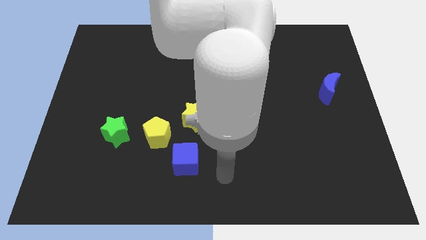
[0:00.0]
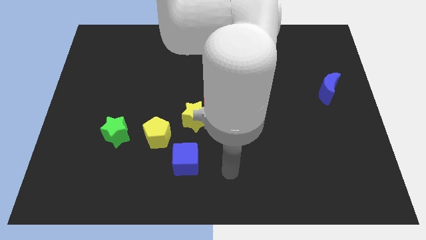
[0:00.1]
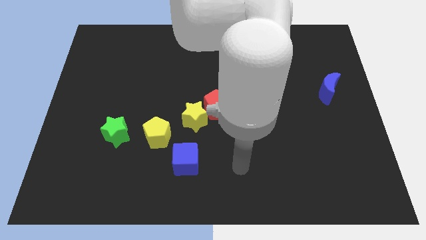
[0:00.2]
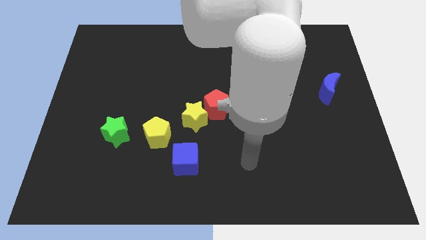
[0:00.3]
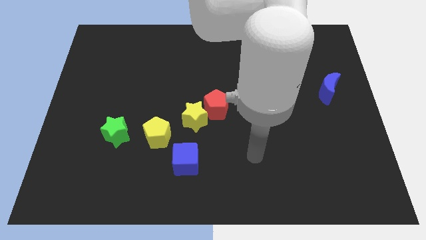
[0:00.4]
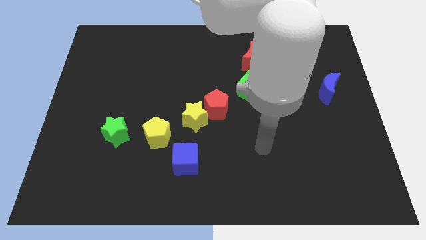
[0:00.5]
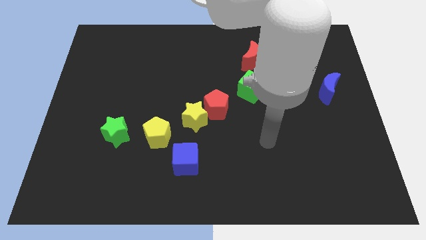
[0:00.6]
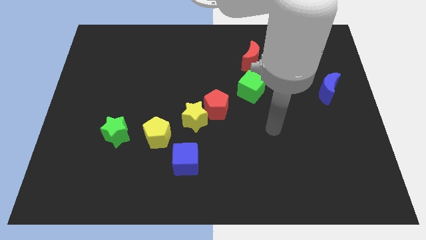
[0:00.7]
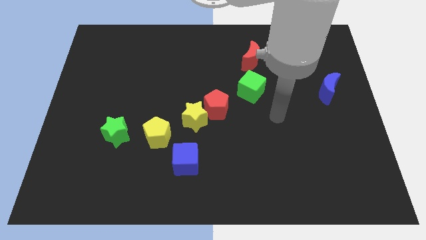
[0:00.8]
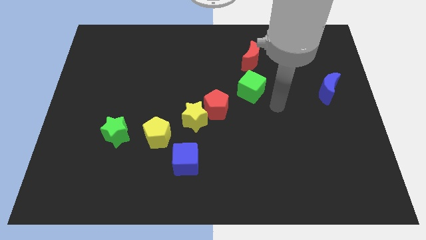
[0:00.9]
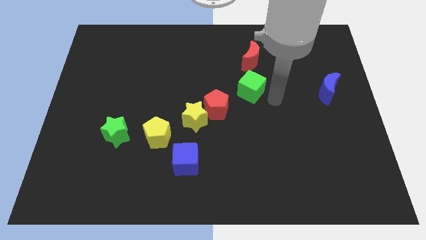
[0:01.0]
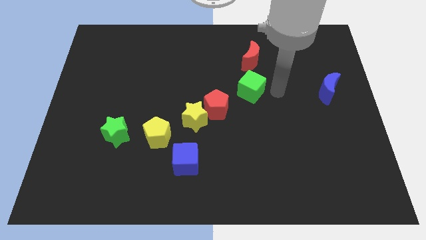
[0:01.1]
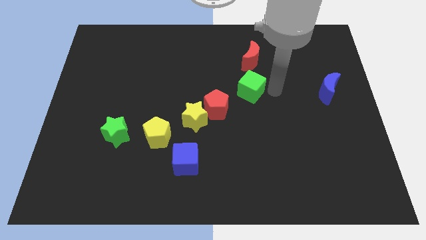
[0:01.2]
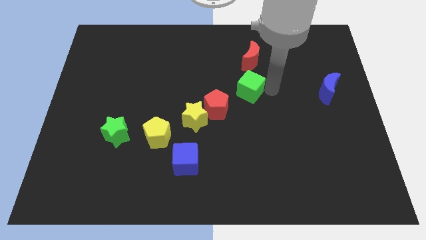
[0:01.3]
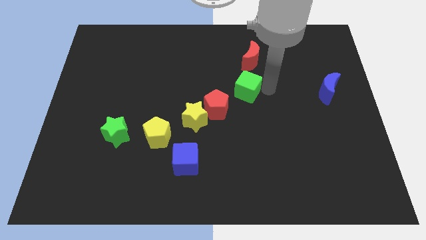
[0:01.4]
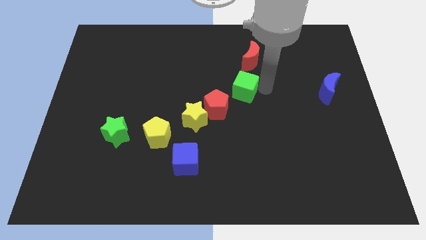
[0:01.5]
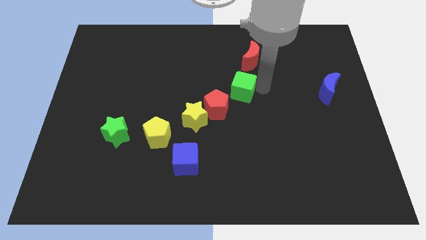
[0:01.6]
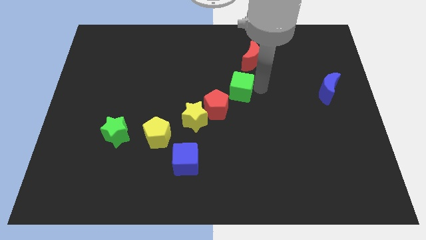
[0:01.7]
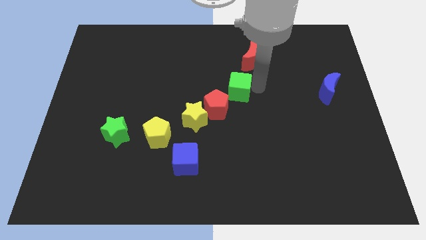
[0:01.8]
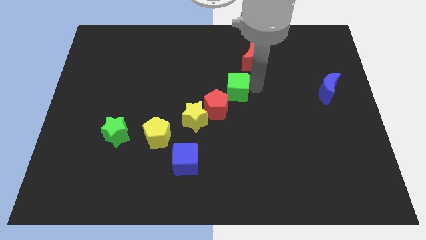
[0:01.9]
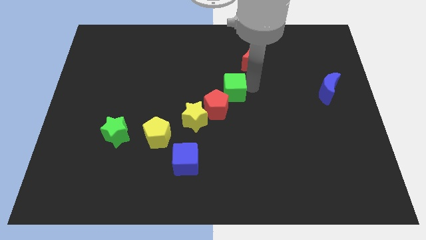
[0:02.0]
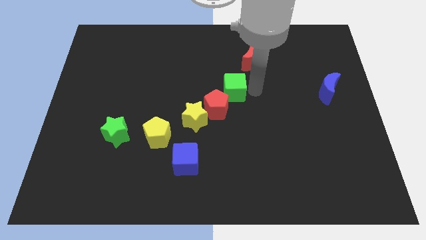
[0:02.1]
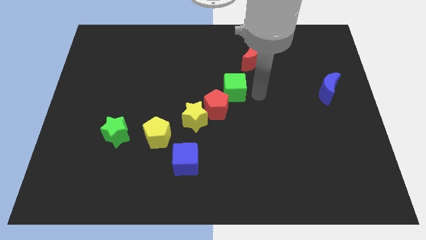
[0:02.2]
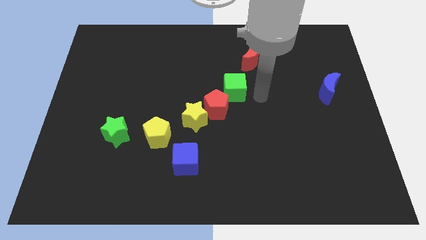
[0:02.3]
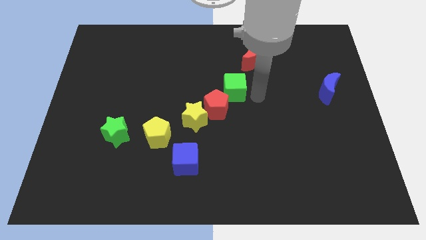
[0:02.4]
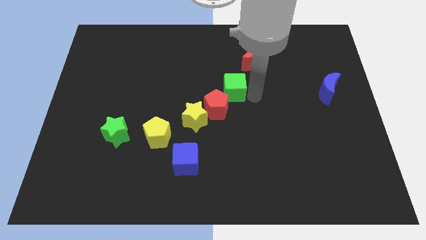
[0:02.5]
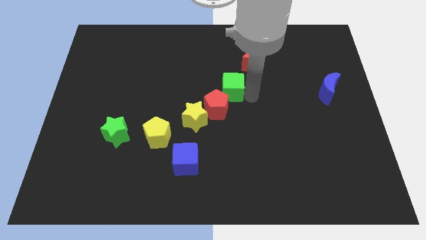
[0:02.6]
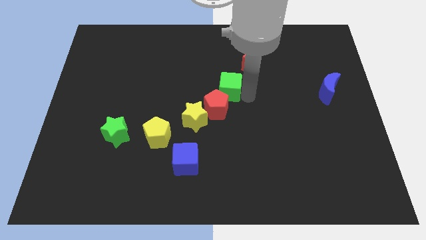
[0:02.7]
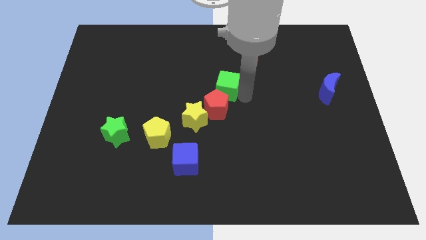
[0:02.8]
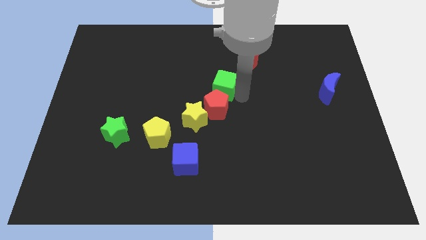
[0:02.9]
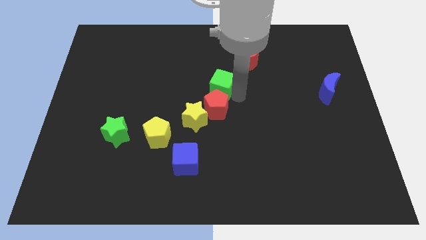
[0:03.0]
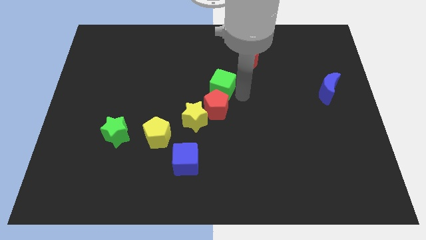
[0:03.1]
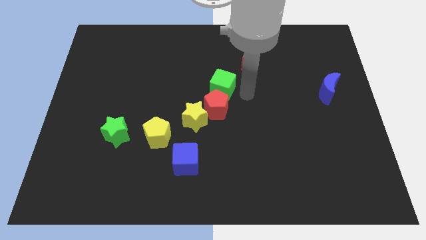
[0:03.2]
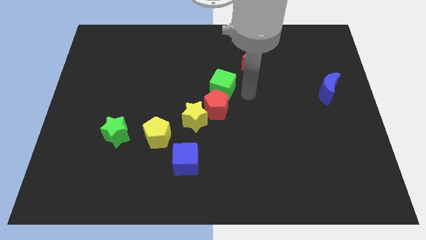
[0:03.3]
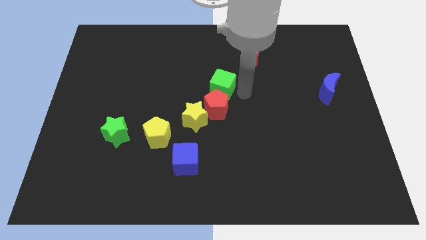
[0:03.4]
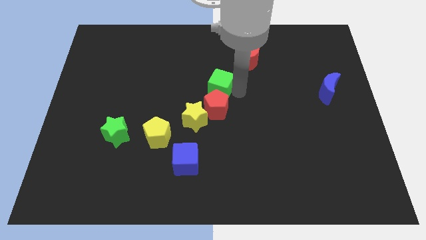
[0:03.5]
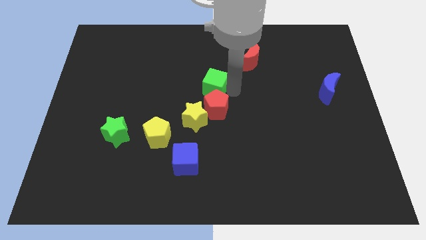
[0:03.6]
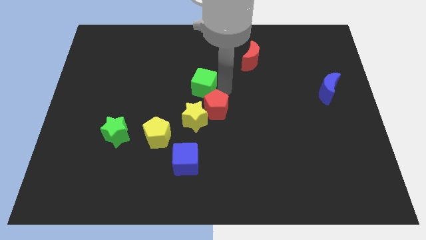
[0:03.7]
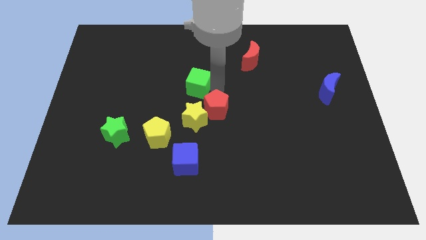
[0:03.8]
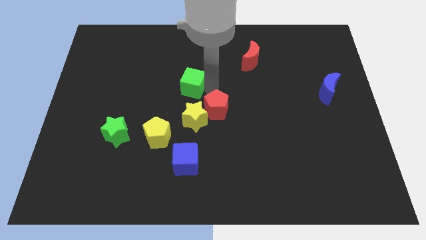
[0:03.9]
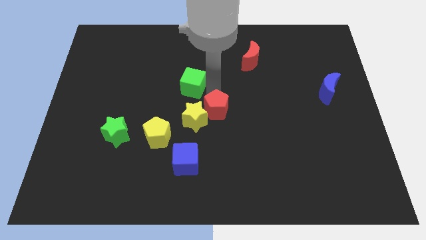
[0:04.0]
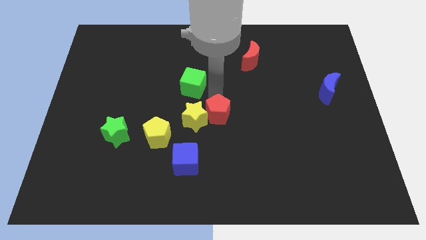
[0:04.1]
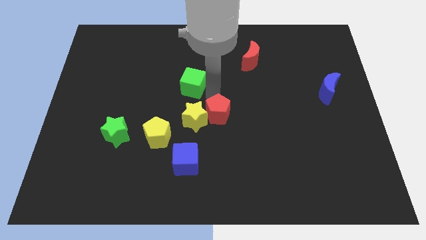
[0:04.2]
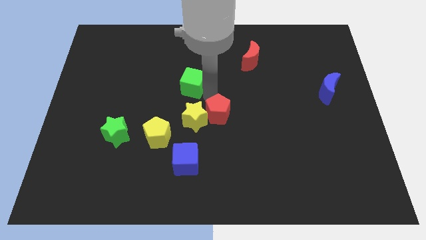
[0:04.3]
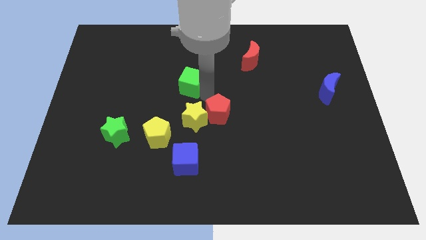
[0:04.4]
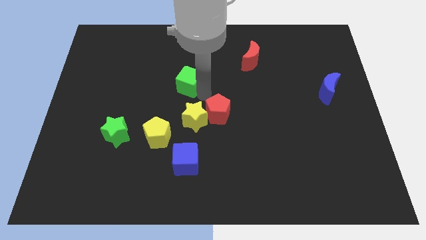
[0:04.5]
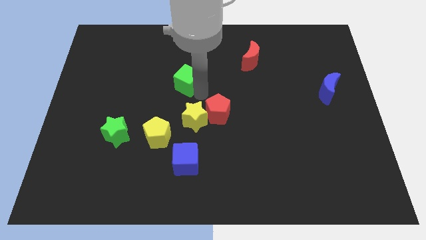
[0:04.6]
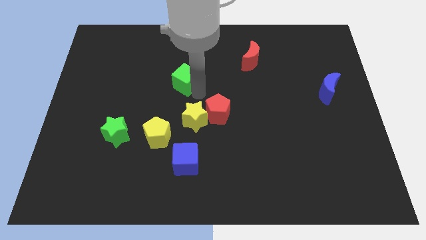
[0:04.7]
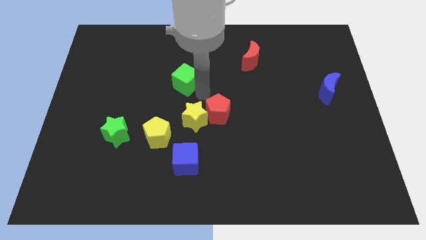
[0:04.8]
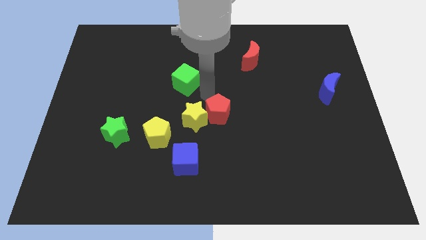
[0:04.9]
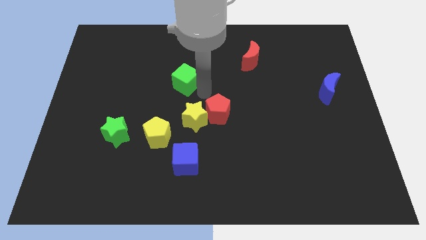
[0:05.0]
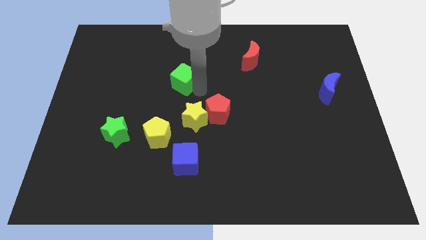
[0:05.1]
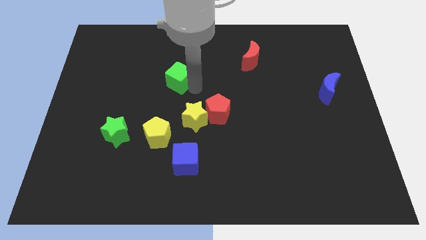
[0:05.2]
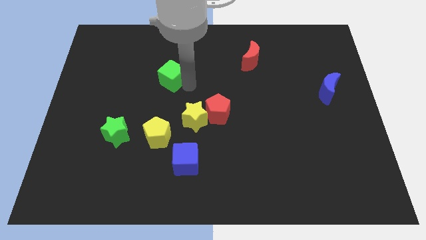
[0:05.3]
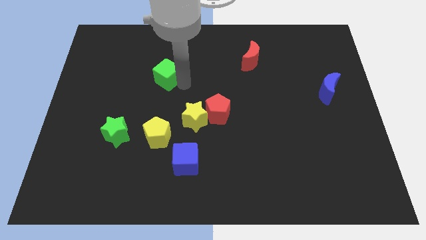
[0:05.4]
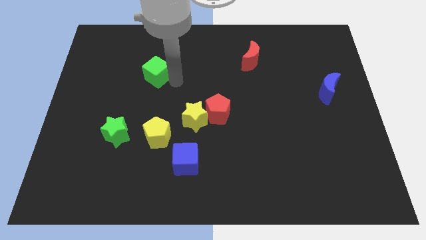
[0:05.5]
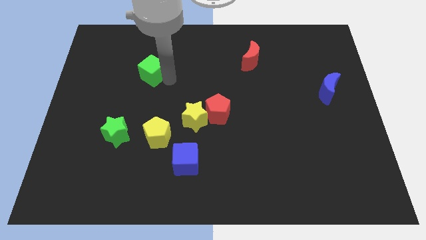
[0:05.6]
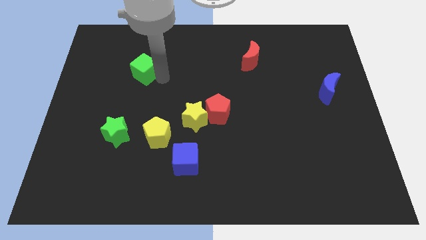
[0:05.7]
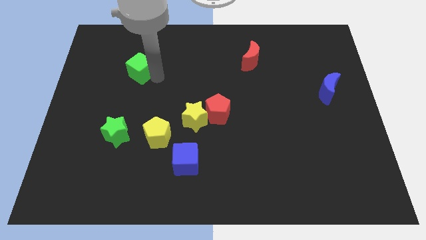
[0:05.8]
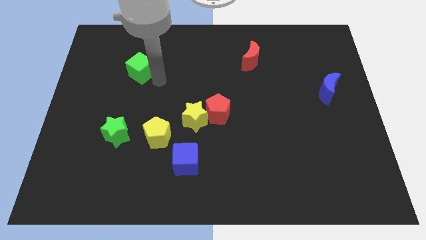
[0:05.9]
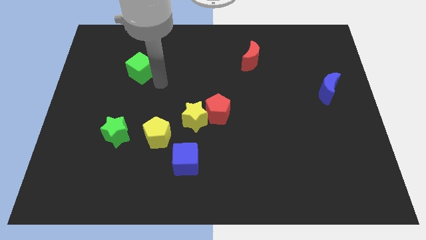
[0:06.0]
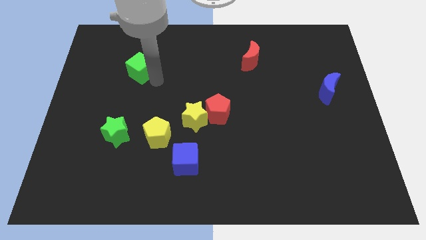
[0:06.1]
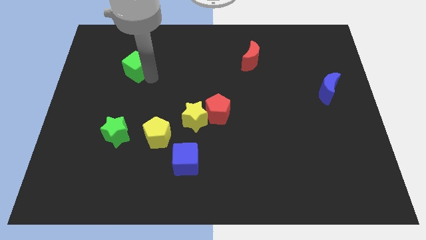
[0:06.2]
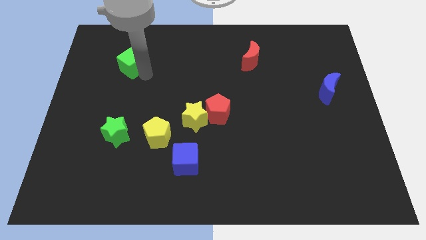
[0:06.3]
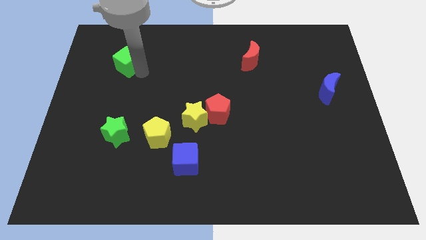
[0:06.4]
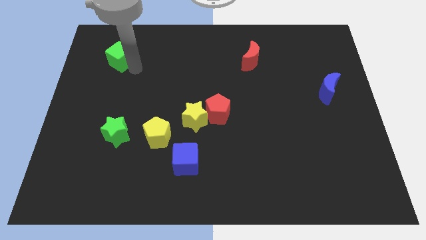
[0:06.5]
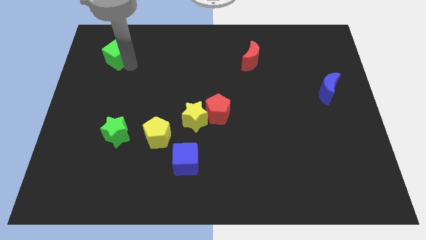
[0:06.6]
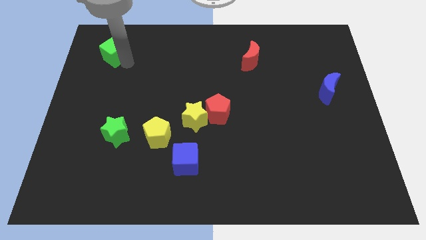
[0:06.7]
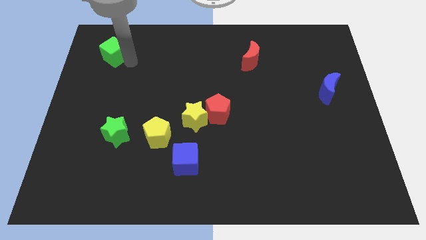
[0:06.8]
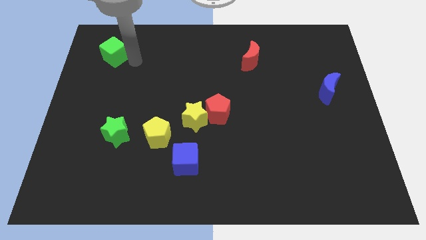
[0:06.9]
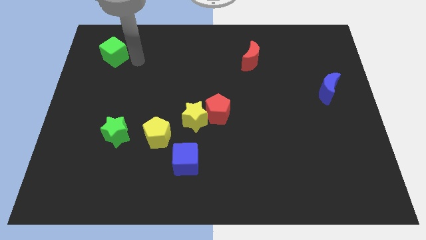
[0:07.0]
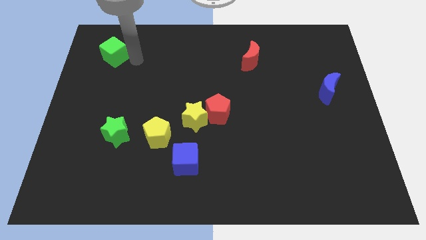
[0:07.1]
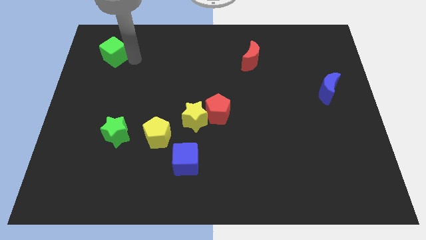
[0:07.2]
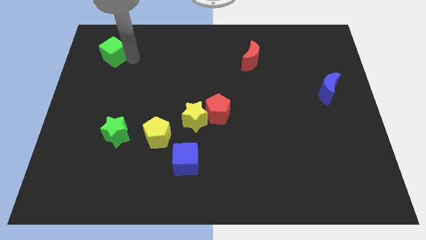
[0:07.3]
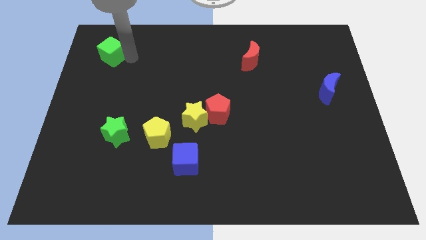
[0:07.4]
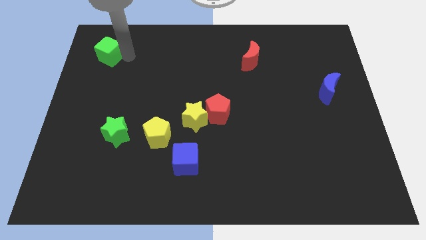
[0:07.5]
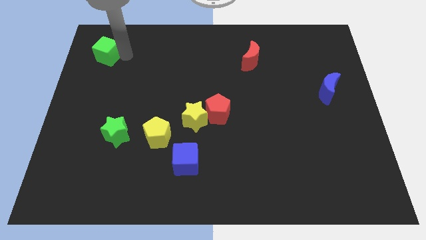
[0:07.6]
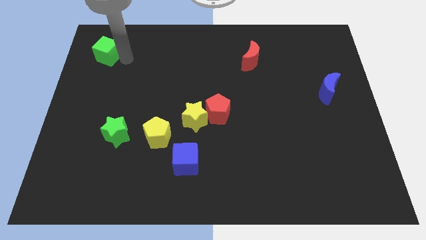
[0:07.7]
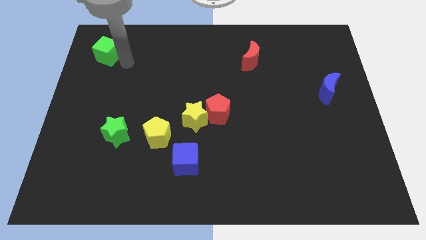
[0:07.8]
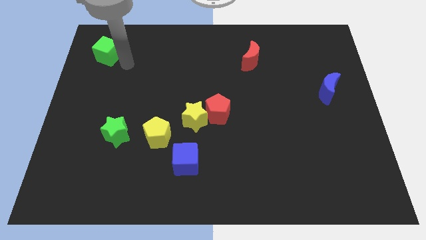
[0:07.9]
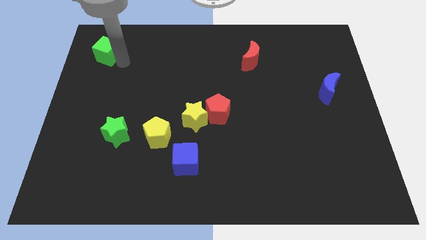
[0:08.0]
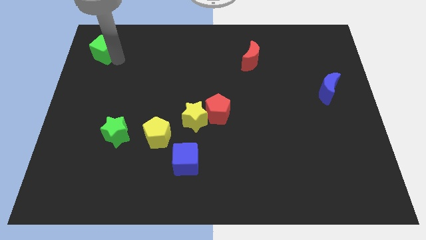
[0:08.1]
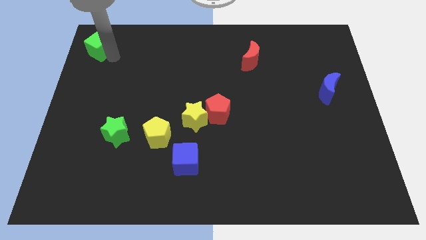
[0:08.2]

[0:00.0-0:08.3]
put the green cube to the top left corner
